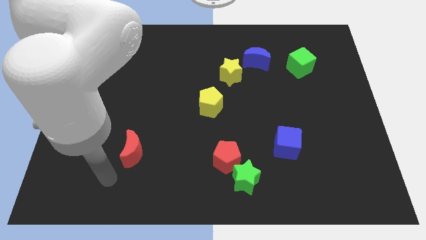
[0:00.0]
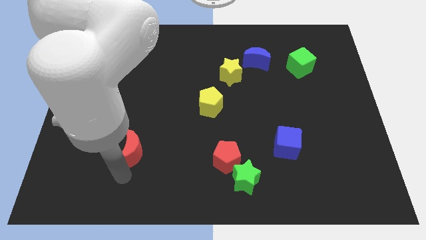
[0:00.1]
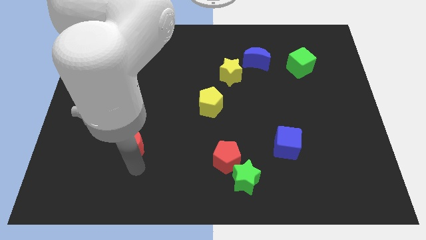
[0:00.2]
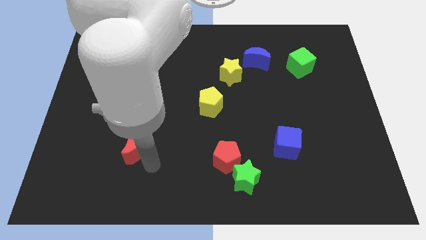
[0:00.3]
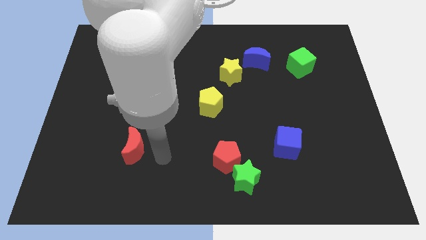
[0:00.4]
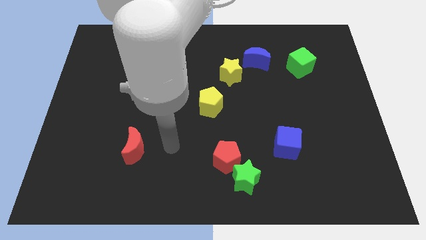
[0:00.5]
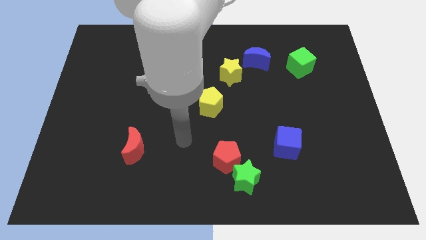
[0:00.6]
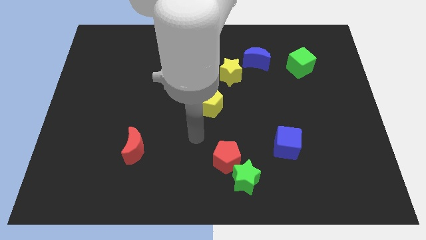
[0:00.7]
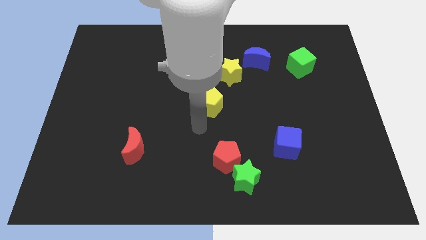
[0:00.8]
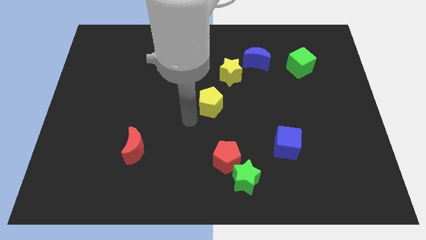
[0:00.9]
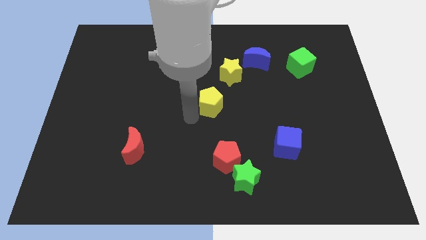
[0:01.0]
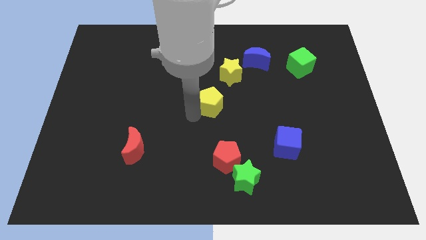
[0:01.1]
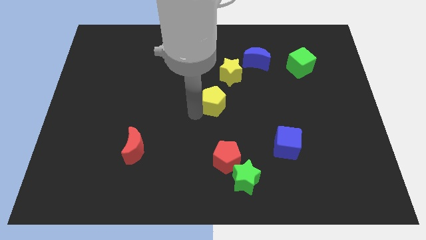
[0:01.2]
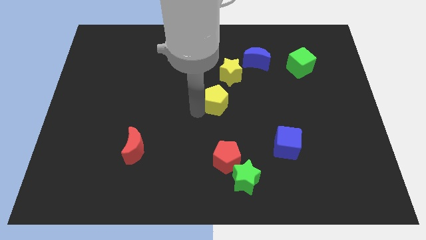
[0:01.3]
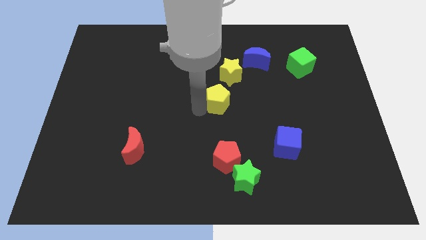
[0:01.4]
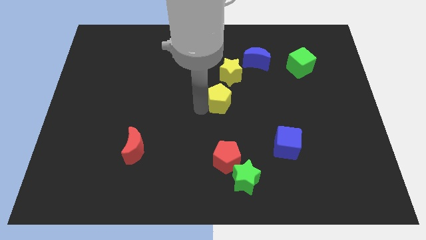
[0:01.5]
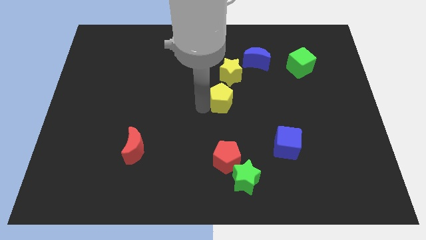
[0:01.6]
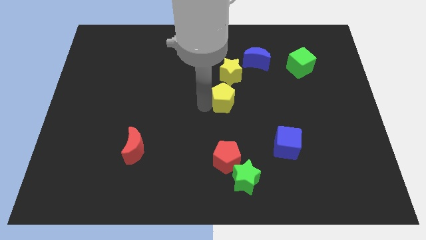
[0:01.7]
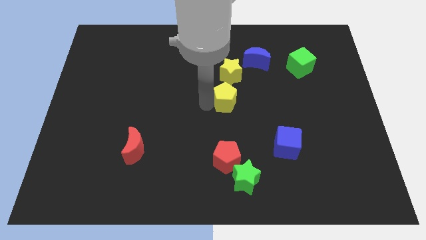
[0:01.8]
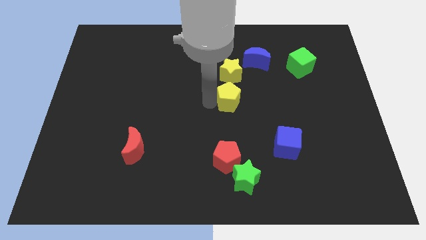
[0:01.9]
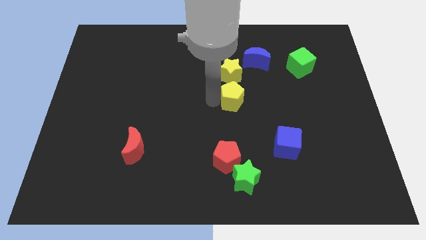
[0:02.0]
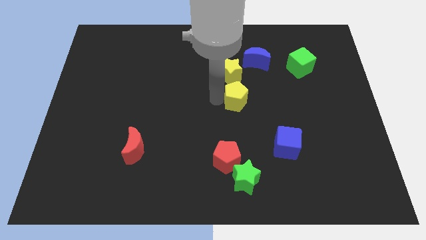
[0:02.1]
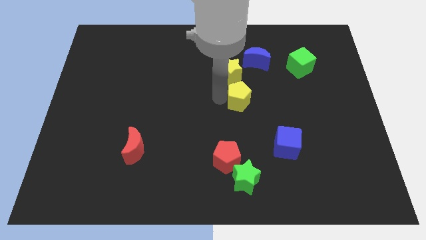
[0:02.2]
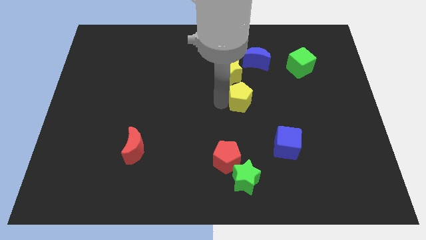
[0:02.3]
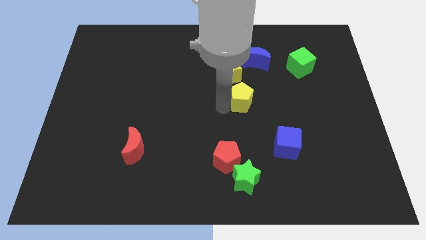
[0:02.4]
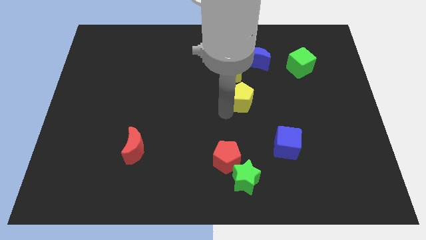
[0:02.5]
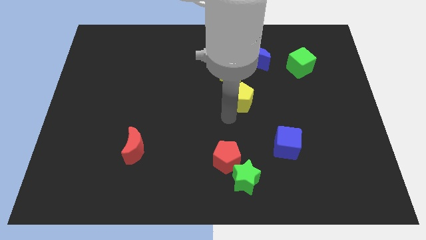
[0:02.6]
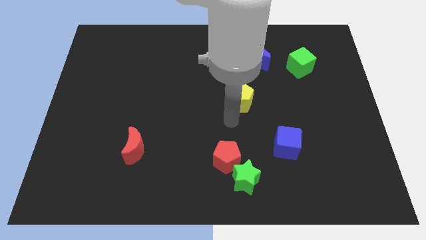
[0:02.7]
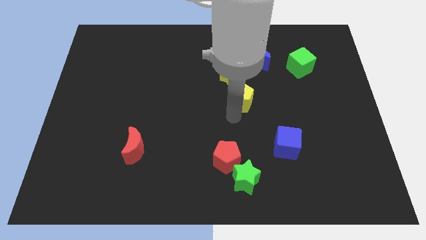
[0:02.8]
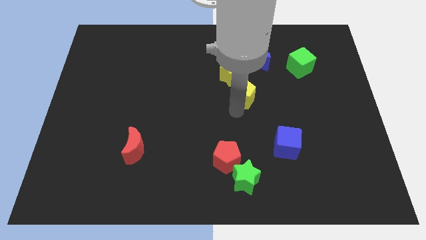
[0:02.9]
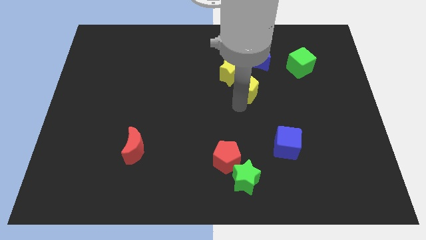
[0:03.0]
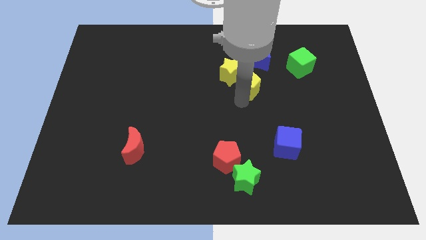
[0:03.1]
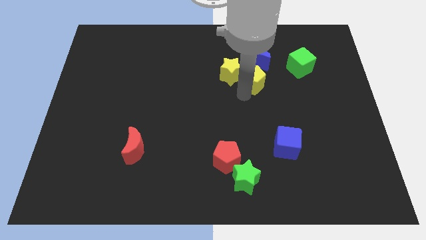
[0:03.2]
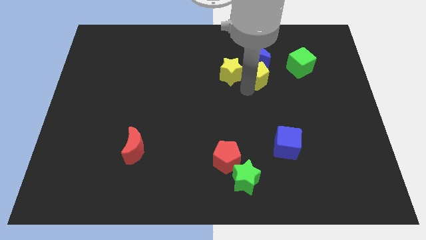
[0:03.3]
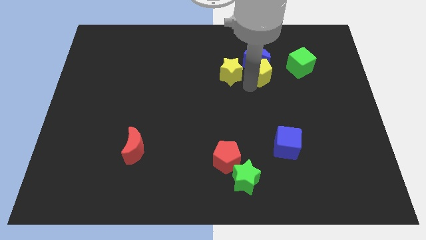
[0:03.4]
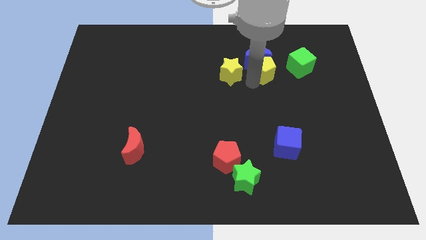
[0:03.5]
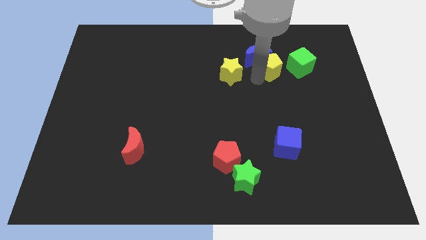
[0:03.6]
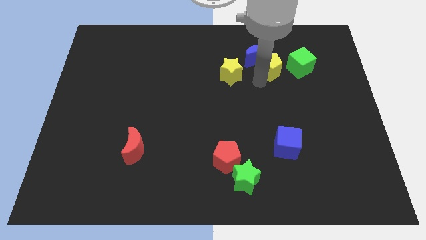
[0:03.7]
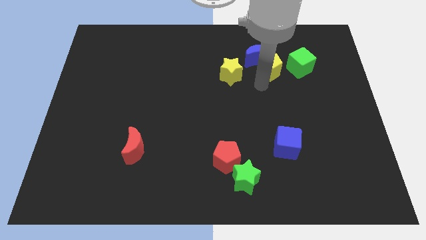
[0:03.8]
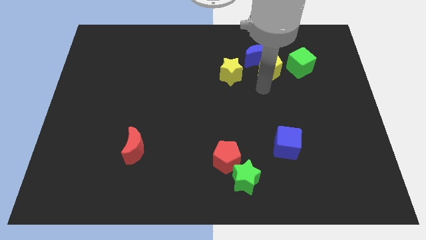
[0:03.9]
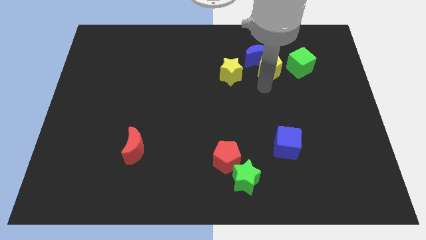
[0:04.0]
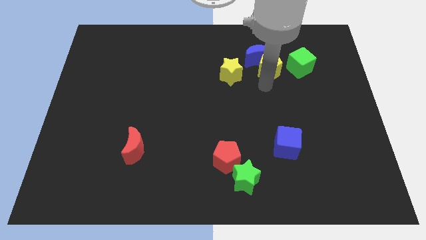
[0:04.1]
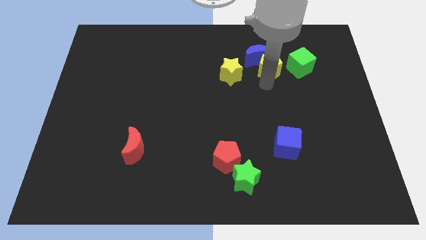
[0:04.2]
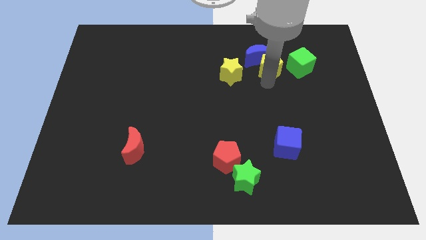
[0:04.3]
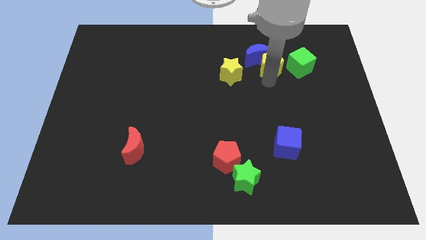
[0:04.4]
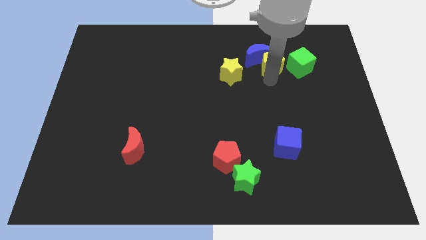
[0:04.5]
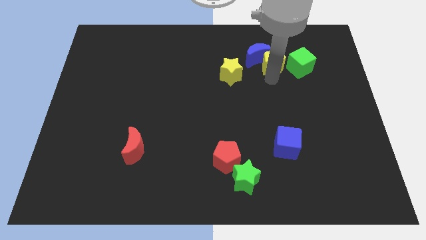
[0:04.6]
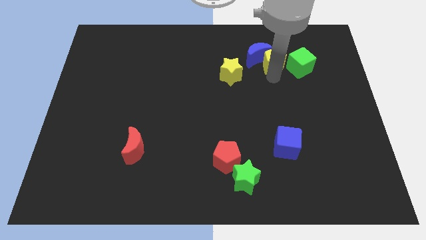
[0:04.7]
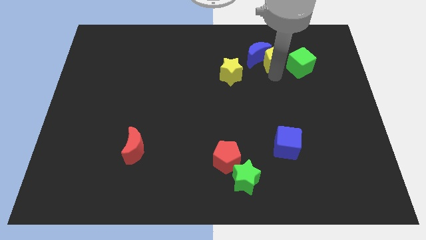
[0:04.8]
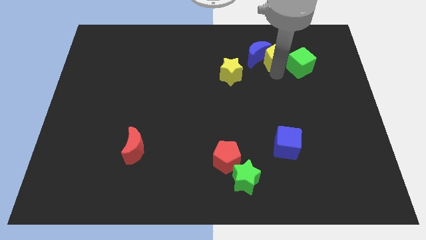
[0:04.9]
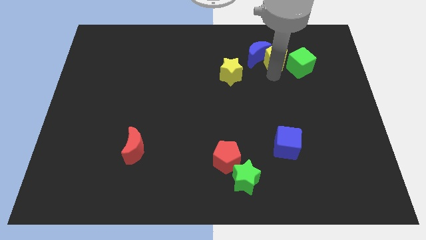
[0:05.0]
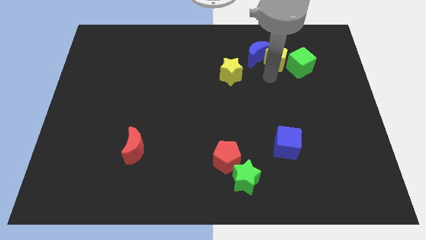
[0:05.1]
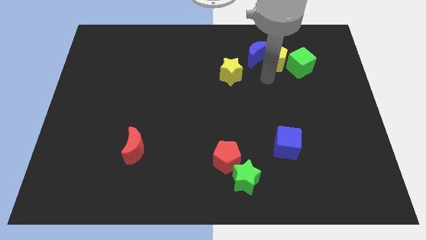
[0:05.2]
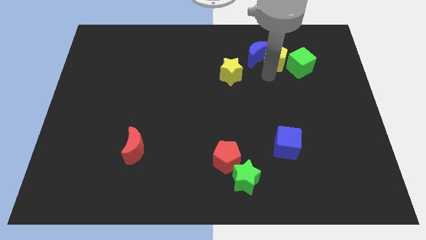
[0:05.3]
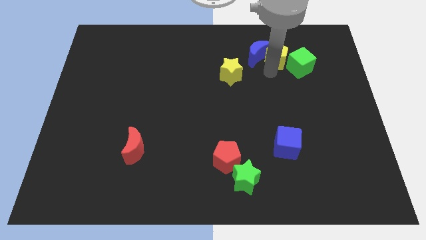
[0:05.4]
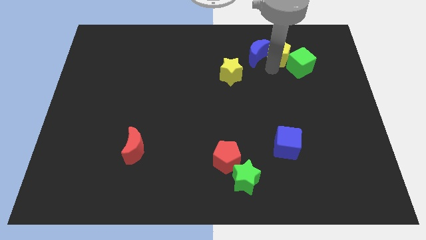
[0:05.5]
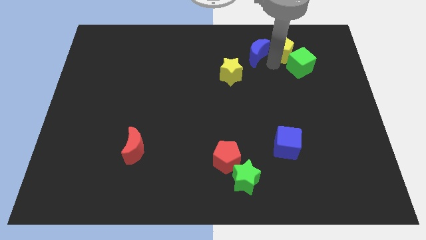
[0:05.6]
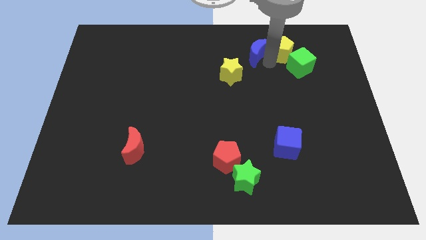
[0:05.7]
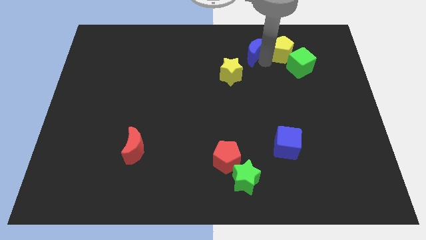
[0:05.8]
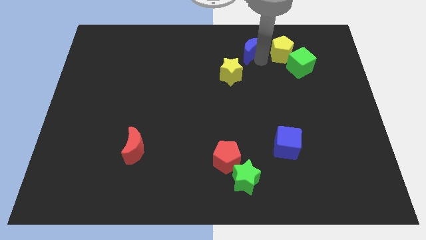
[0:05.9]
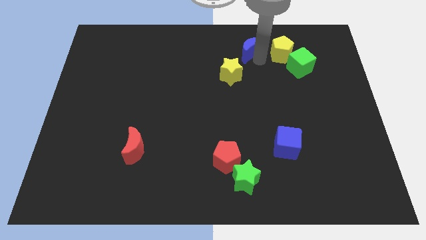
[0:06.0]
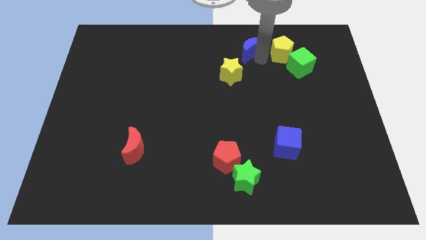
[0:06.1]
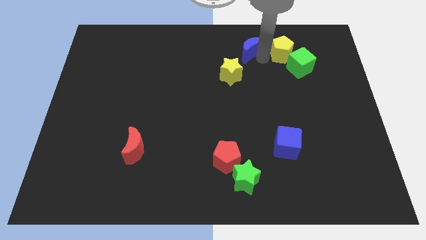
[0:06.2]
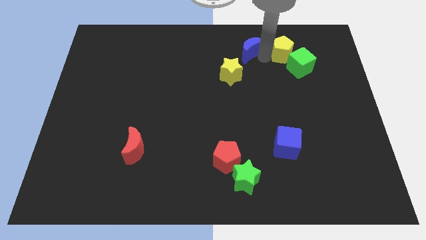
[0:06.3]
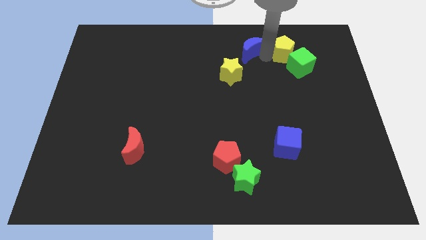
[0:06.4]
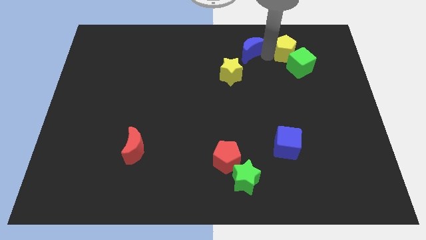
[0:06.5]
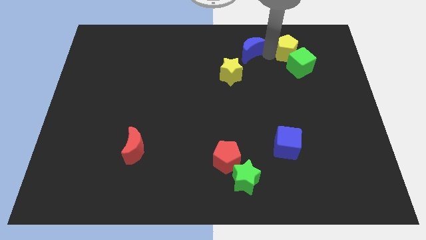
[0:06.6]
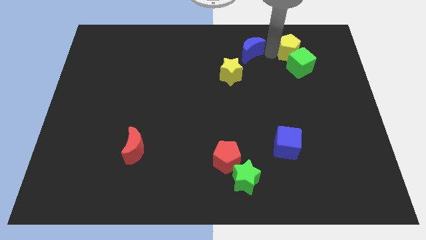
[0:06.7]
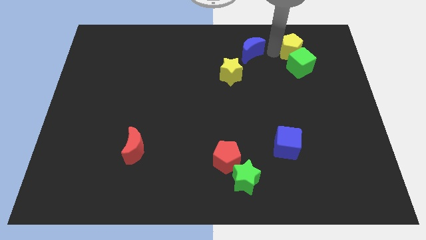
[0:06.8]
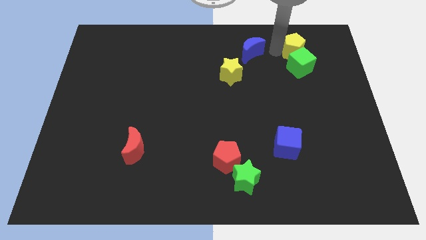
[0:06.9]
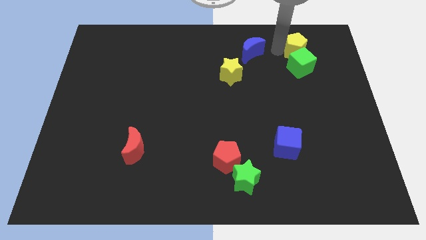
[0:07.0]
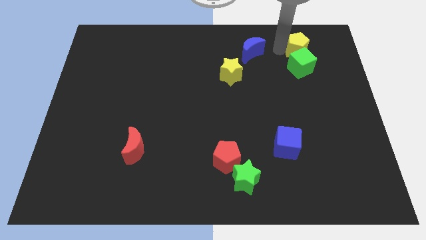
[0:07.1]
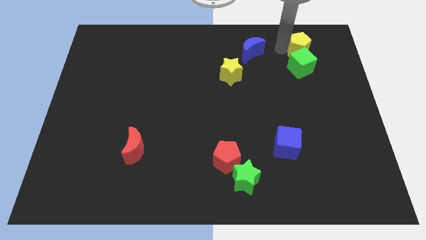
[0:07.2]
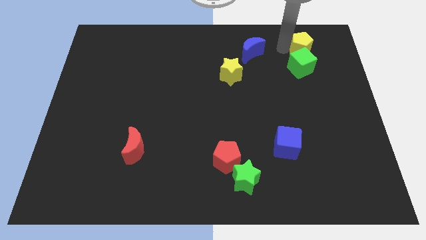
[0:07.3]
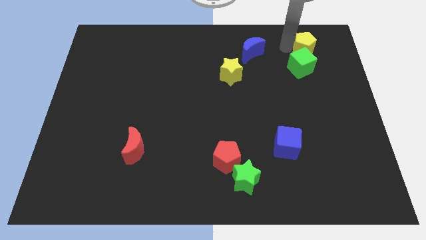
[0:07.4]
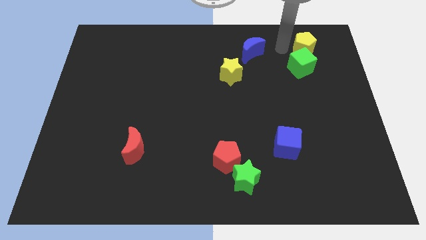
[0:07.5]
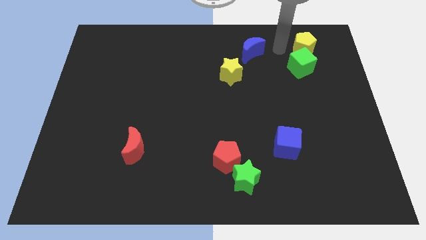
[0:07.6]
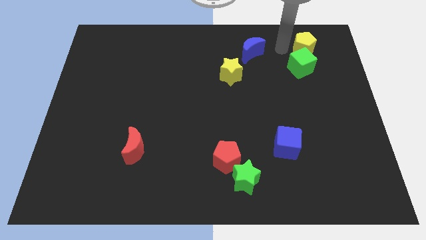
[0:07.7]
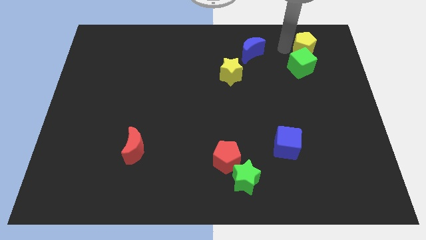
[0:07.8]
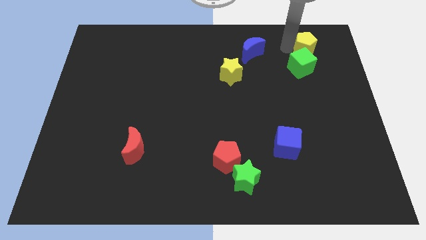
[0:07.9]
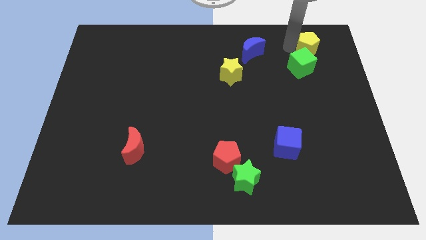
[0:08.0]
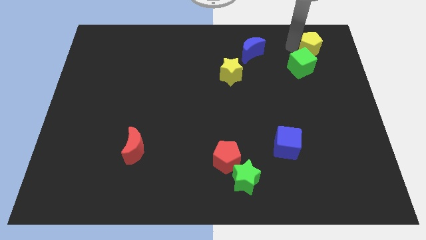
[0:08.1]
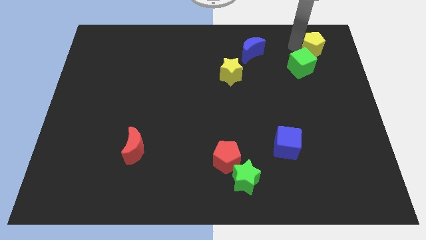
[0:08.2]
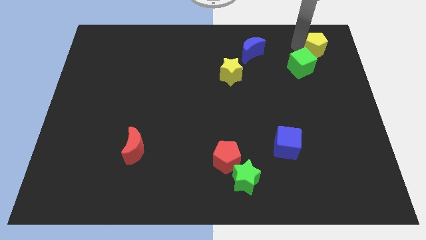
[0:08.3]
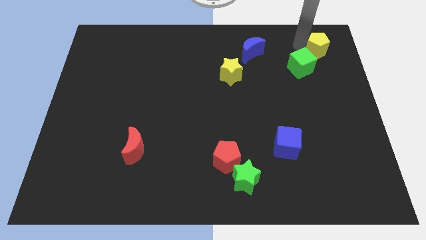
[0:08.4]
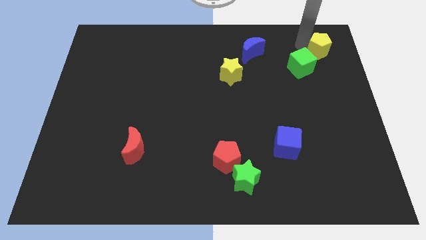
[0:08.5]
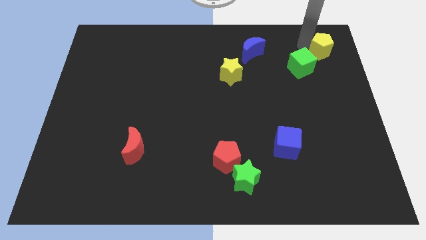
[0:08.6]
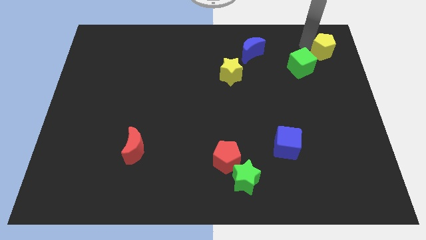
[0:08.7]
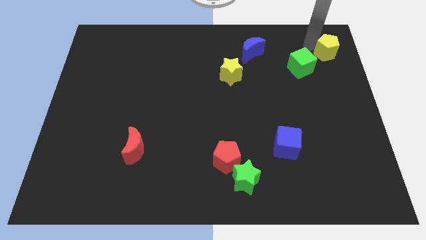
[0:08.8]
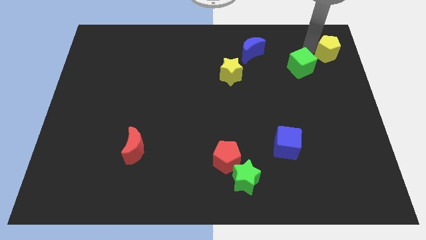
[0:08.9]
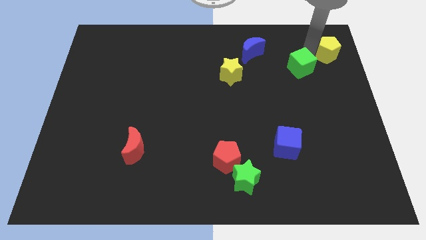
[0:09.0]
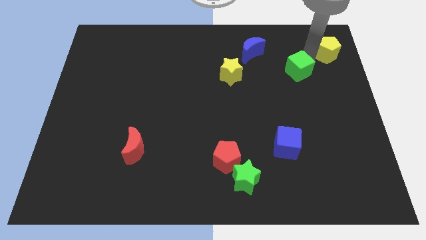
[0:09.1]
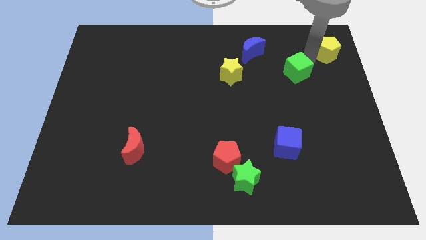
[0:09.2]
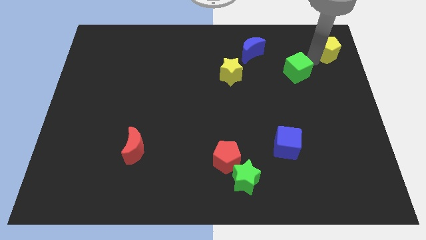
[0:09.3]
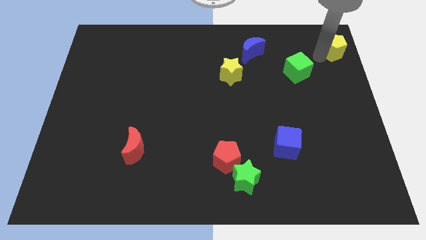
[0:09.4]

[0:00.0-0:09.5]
put the yellow pentagon to the top right corner
